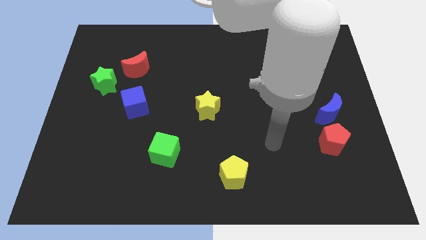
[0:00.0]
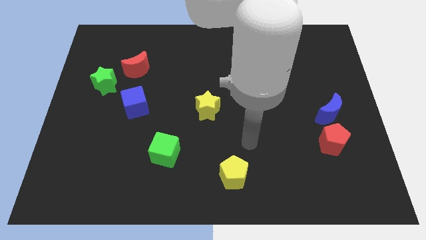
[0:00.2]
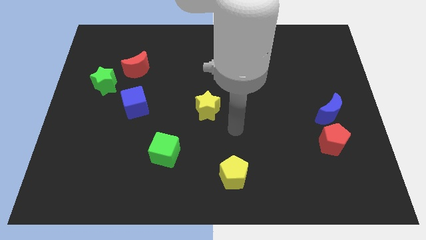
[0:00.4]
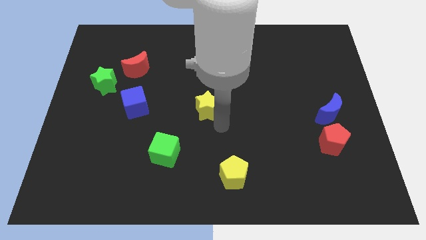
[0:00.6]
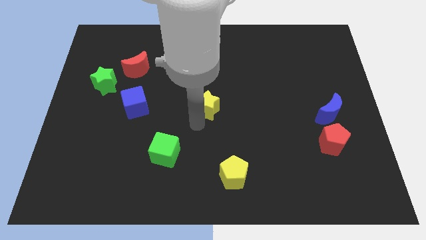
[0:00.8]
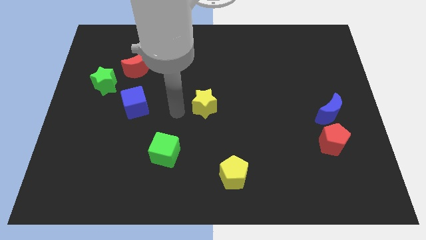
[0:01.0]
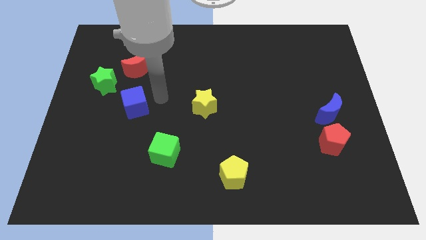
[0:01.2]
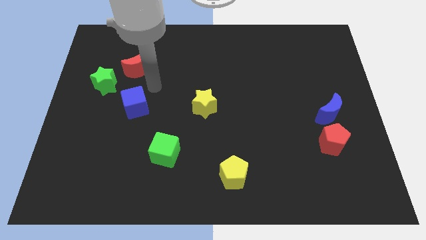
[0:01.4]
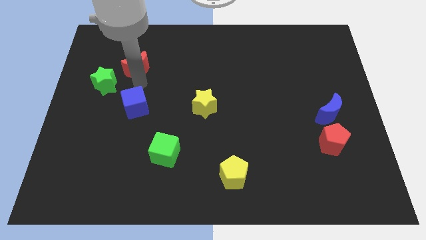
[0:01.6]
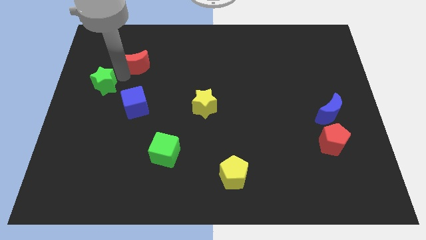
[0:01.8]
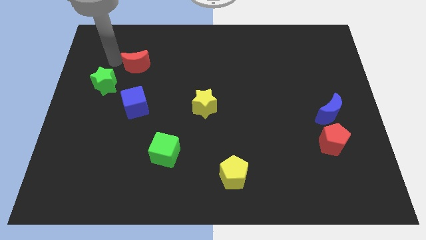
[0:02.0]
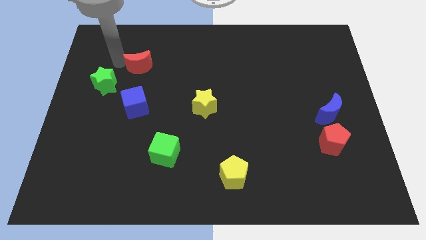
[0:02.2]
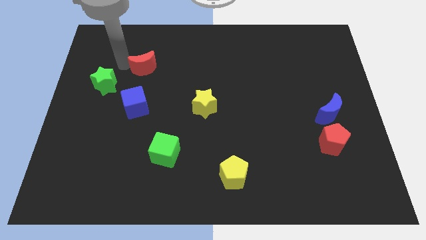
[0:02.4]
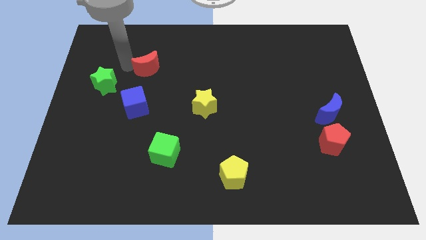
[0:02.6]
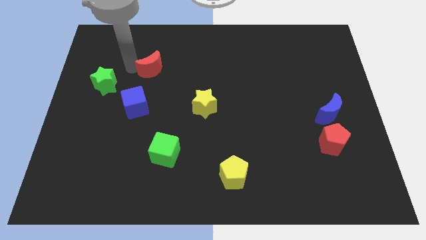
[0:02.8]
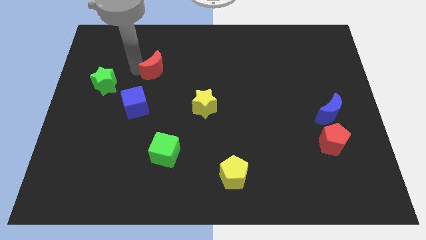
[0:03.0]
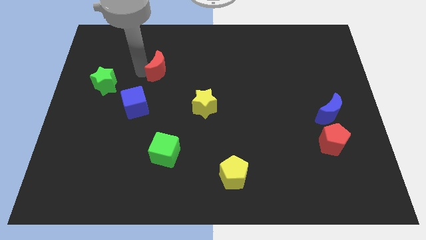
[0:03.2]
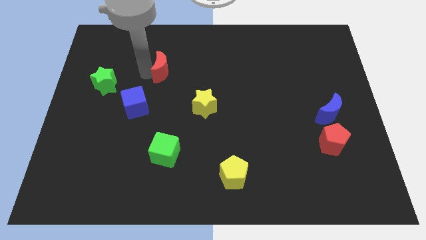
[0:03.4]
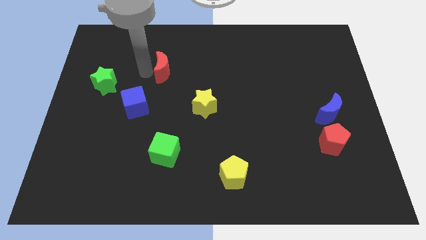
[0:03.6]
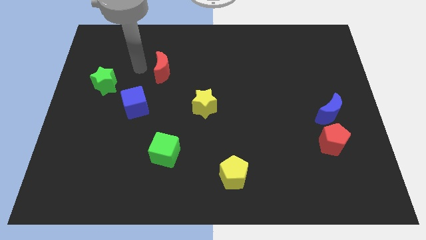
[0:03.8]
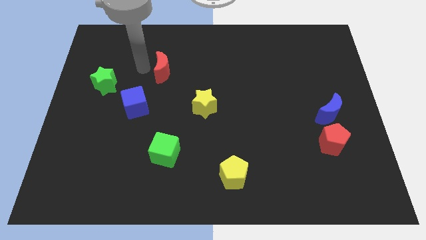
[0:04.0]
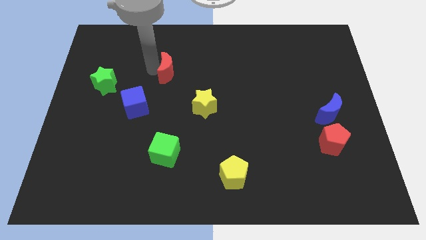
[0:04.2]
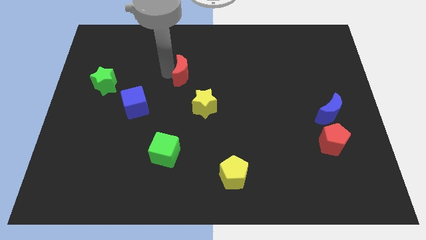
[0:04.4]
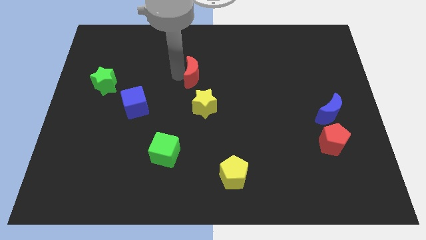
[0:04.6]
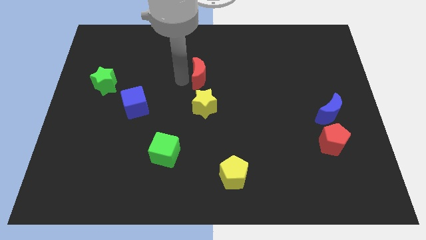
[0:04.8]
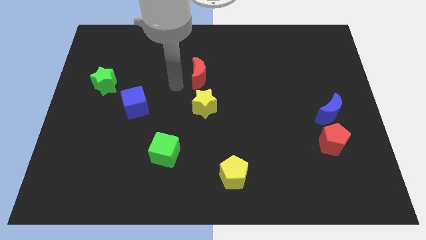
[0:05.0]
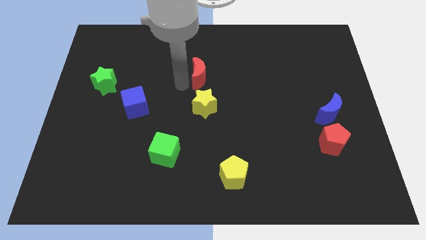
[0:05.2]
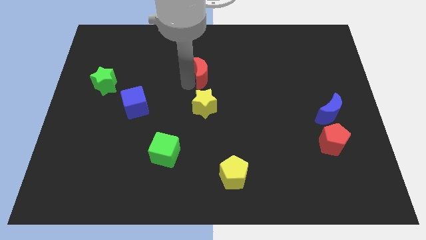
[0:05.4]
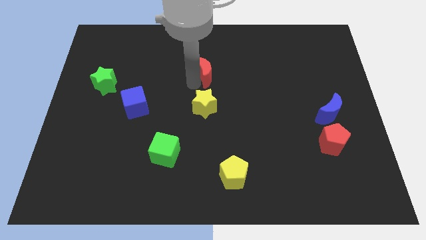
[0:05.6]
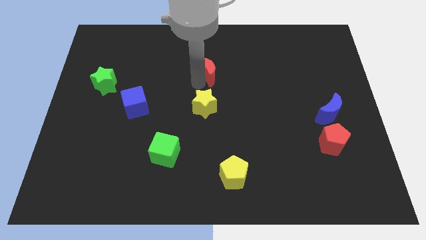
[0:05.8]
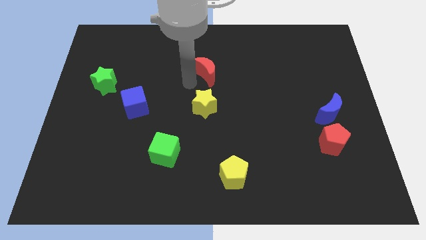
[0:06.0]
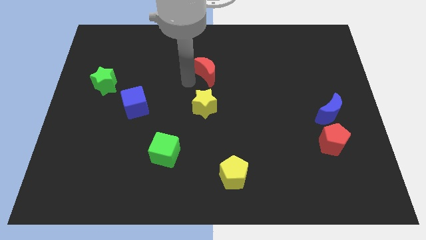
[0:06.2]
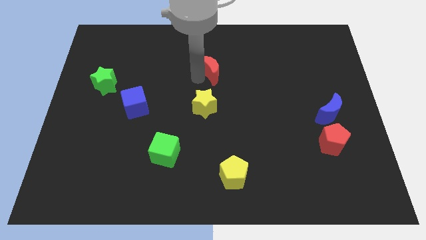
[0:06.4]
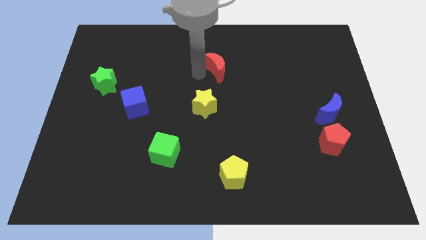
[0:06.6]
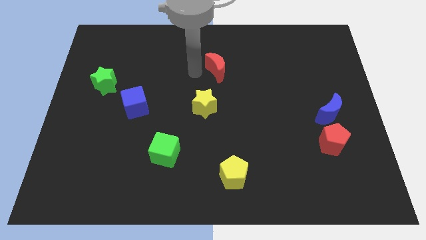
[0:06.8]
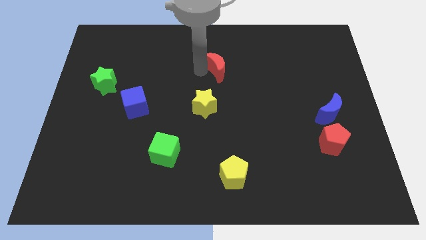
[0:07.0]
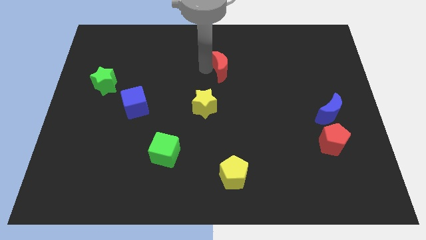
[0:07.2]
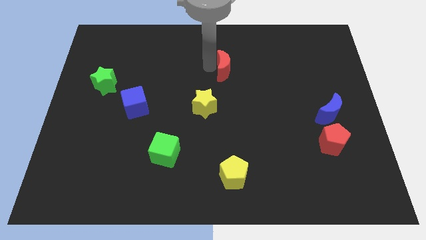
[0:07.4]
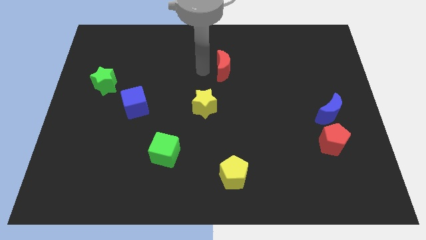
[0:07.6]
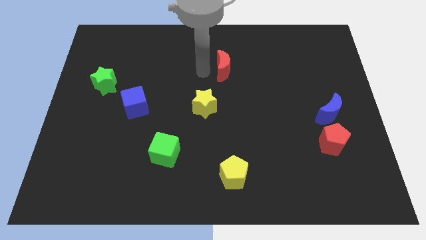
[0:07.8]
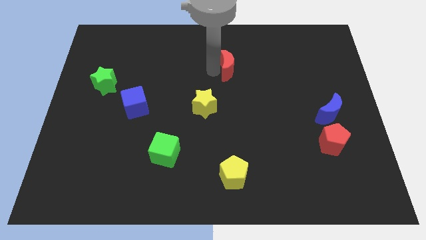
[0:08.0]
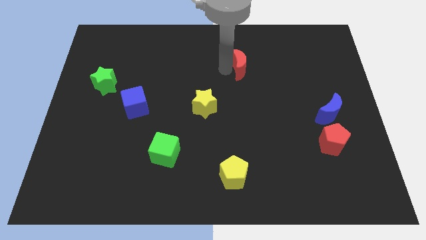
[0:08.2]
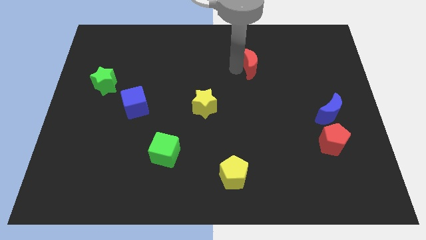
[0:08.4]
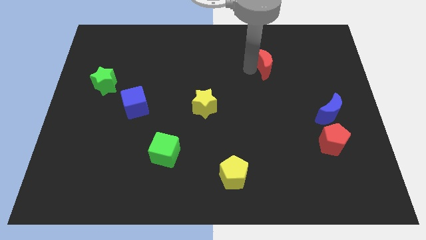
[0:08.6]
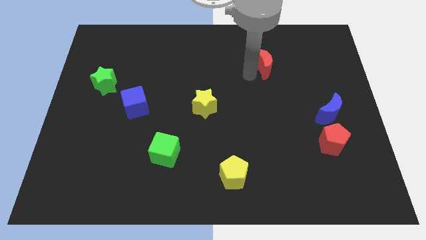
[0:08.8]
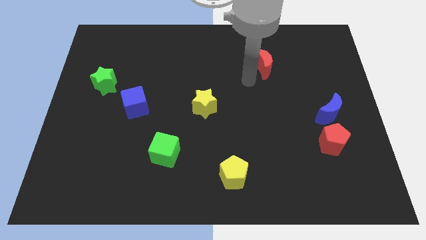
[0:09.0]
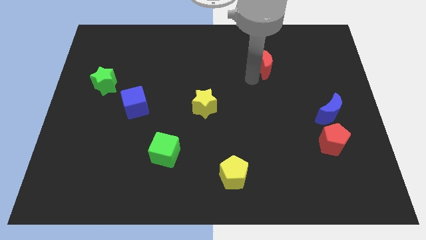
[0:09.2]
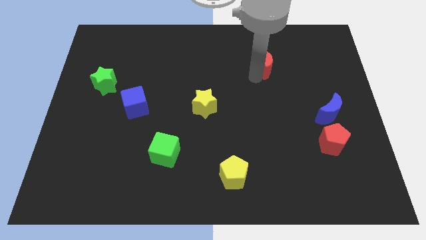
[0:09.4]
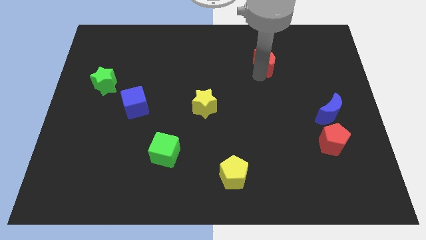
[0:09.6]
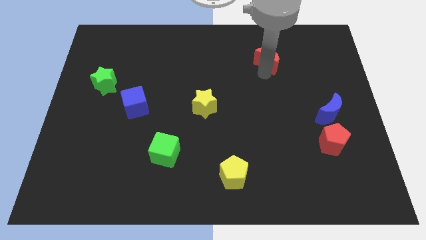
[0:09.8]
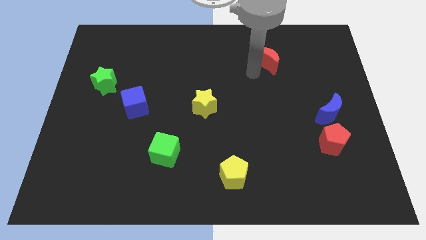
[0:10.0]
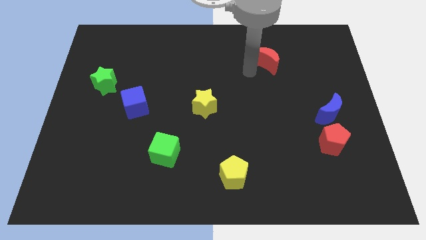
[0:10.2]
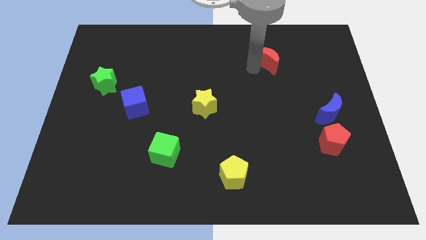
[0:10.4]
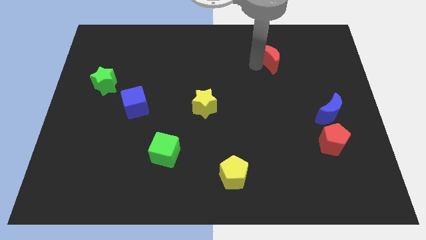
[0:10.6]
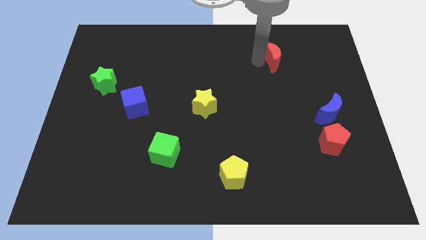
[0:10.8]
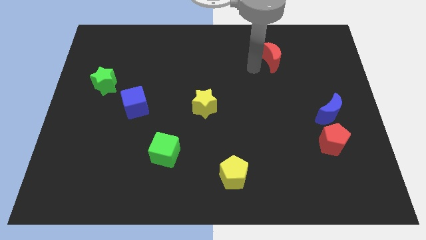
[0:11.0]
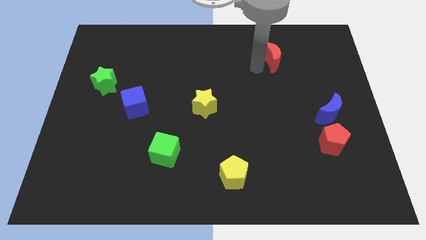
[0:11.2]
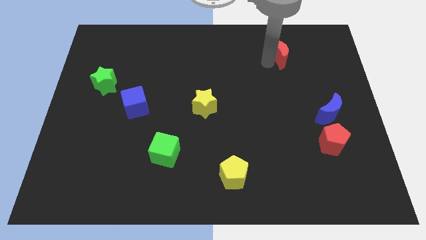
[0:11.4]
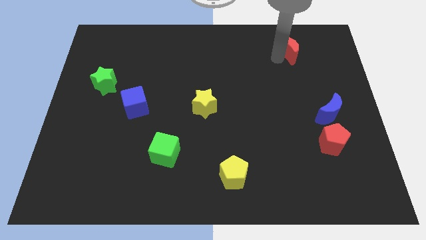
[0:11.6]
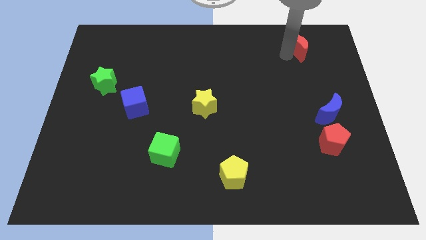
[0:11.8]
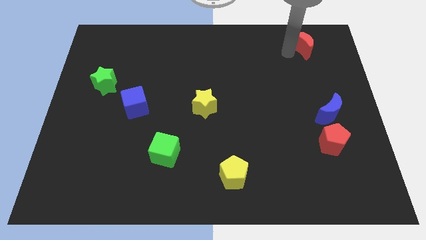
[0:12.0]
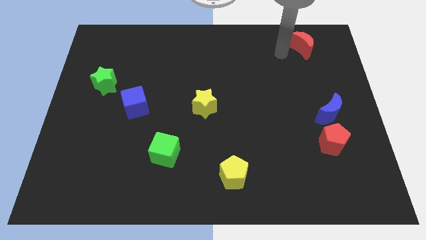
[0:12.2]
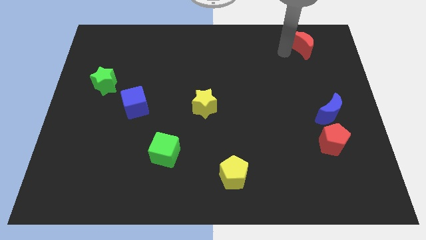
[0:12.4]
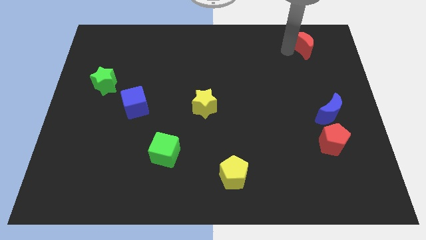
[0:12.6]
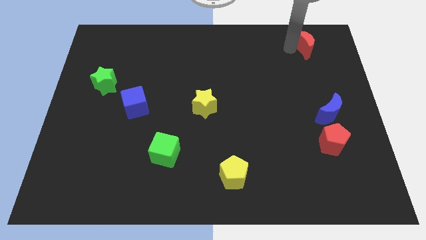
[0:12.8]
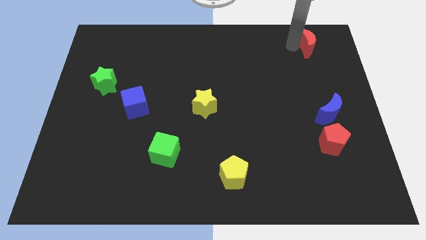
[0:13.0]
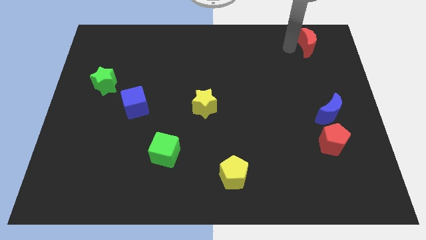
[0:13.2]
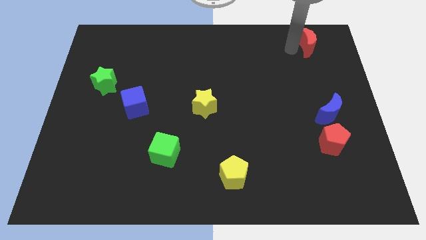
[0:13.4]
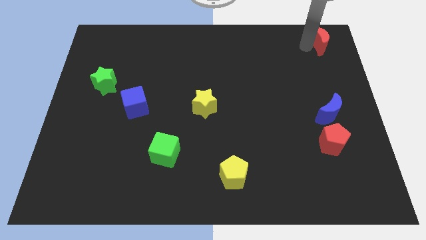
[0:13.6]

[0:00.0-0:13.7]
slide the red moon to the top right of the board
